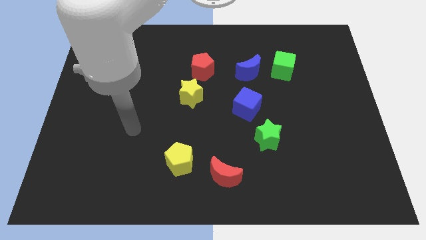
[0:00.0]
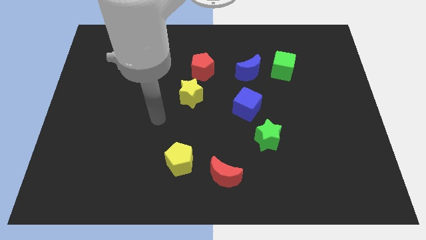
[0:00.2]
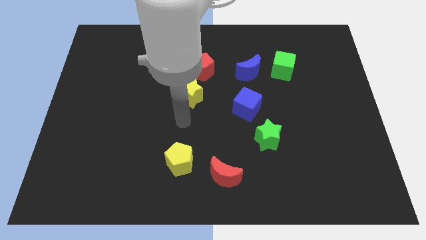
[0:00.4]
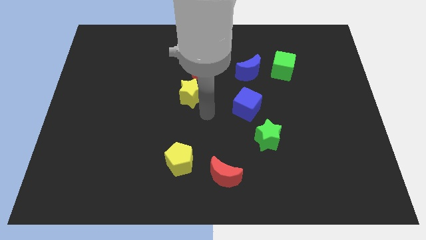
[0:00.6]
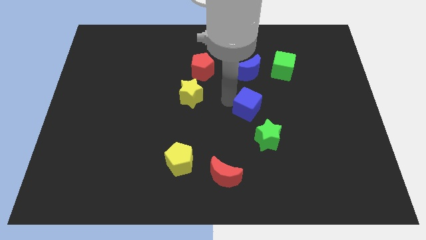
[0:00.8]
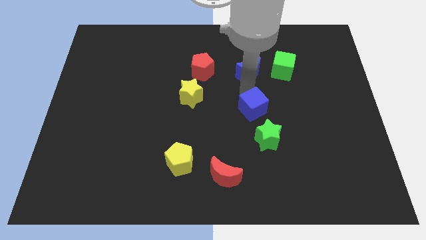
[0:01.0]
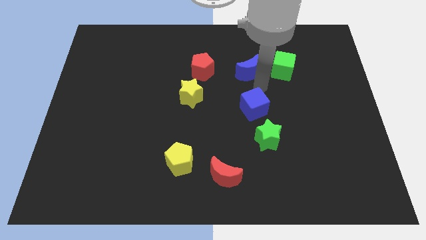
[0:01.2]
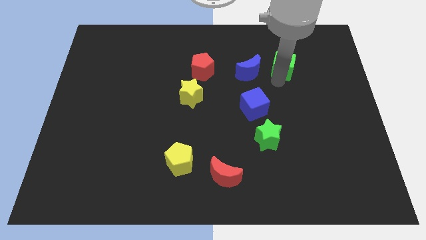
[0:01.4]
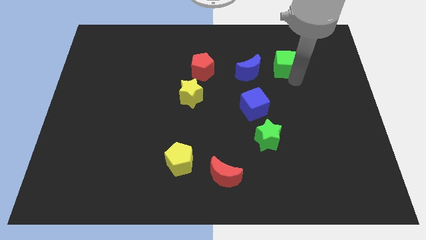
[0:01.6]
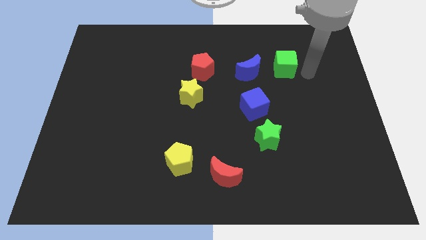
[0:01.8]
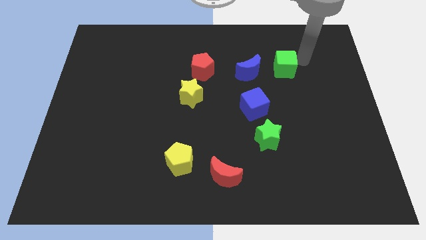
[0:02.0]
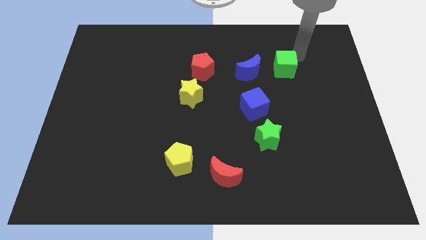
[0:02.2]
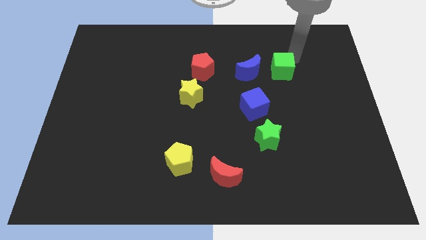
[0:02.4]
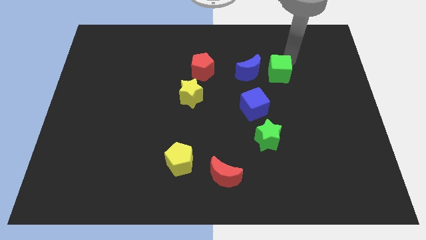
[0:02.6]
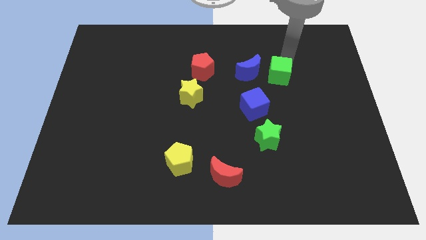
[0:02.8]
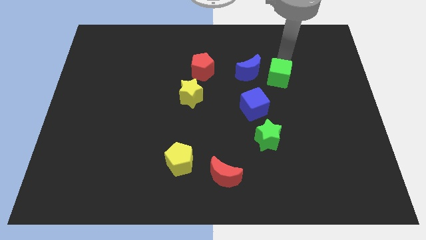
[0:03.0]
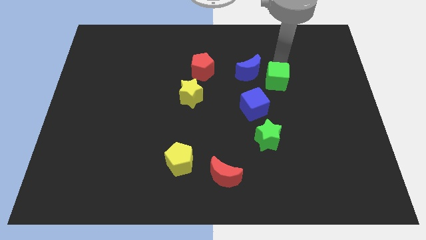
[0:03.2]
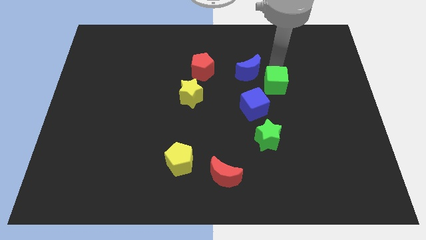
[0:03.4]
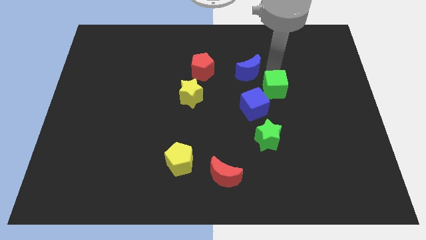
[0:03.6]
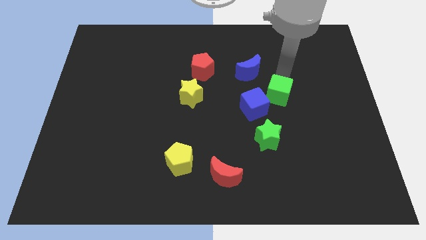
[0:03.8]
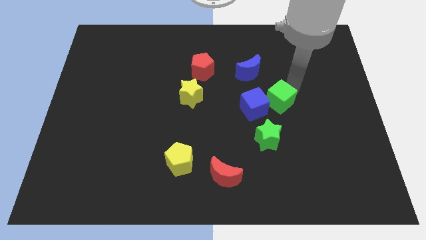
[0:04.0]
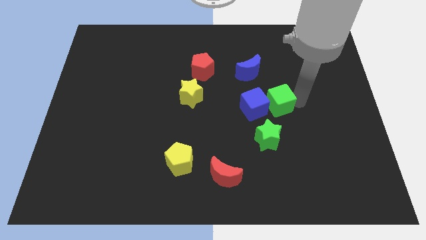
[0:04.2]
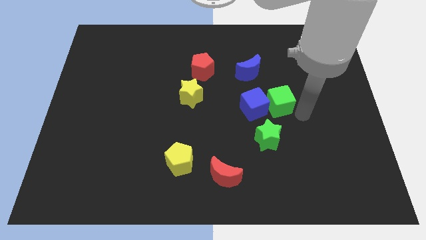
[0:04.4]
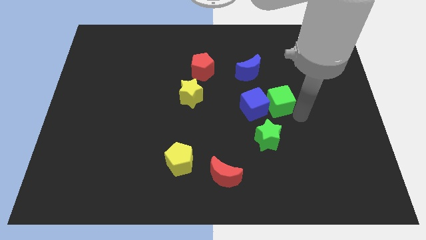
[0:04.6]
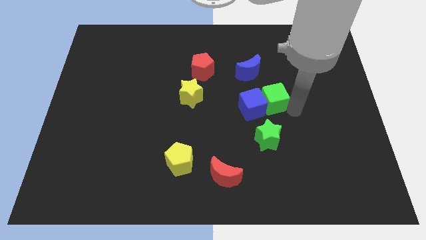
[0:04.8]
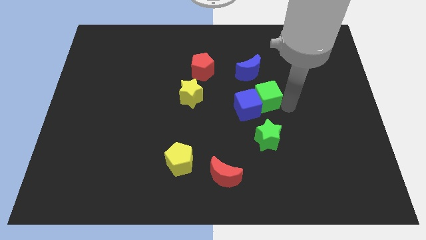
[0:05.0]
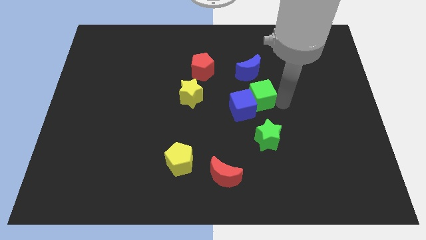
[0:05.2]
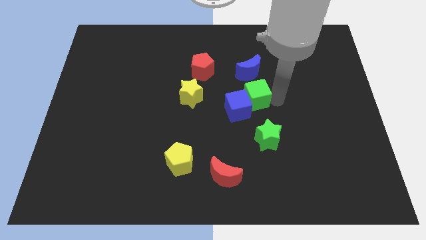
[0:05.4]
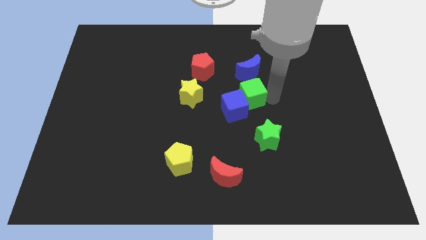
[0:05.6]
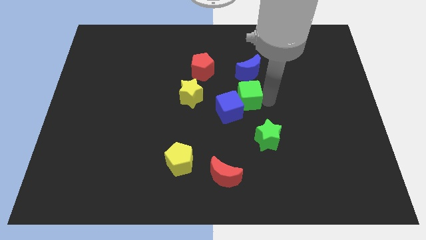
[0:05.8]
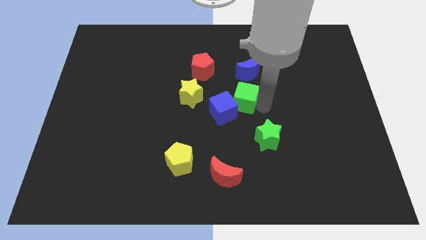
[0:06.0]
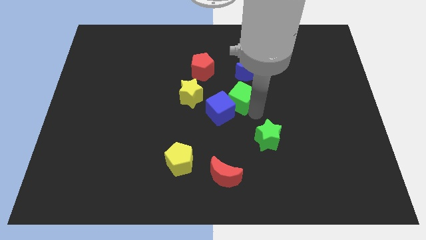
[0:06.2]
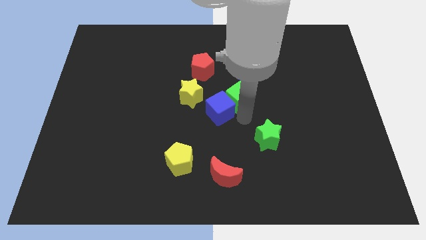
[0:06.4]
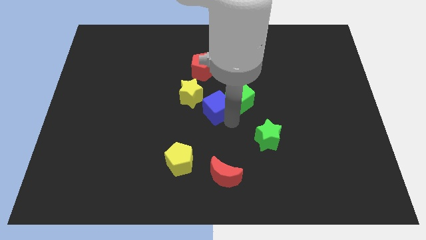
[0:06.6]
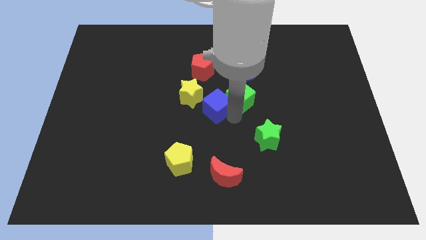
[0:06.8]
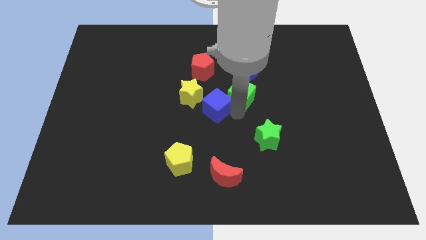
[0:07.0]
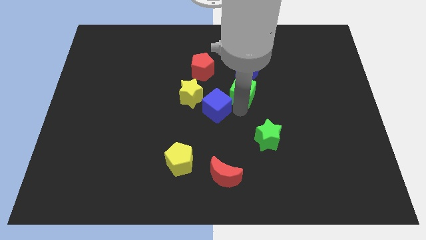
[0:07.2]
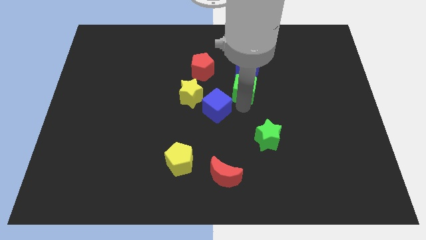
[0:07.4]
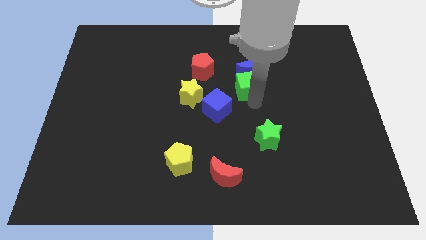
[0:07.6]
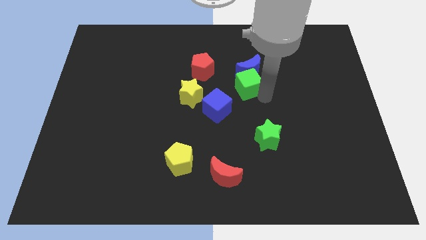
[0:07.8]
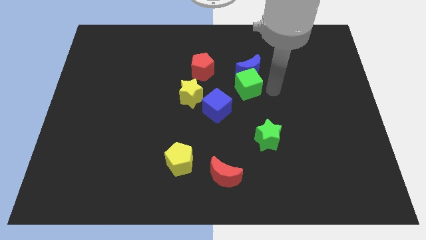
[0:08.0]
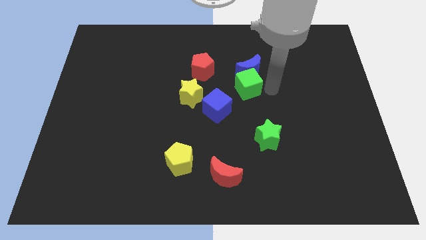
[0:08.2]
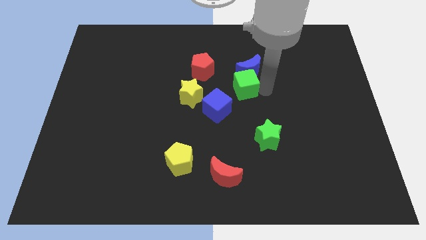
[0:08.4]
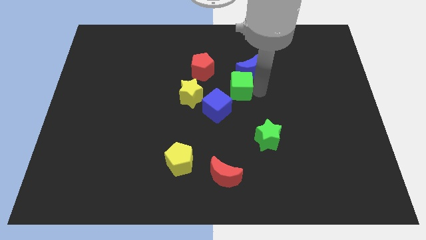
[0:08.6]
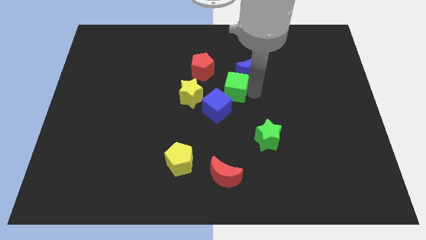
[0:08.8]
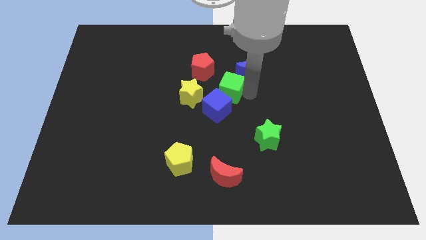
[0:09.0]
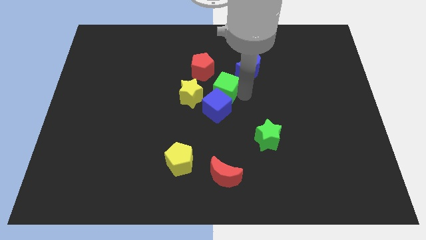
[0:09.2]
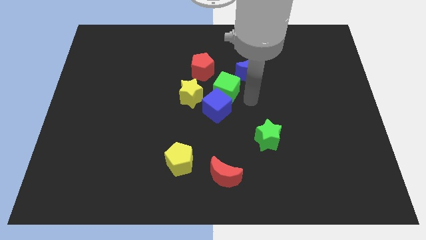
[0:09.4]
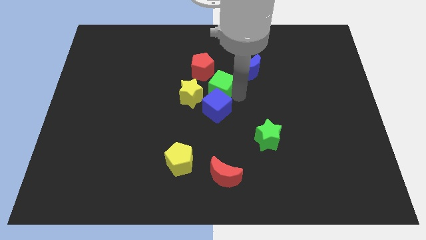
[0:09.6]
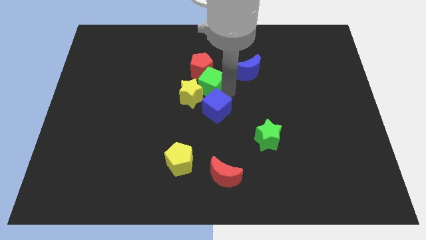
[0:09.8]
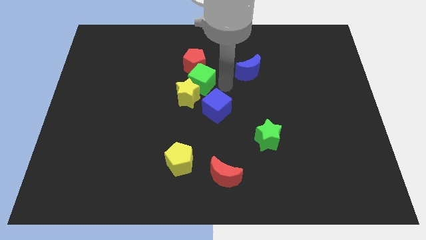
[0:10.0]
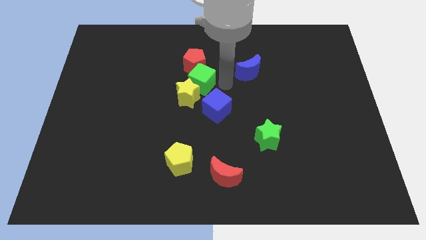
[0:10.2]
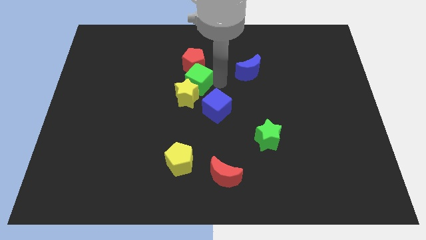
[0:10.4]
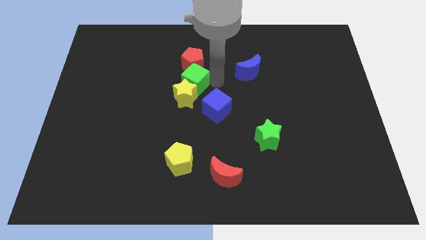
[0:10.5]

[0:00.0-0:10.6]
put the green cube diagonally down and to the left of the red pentagon

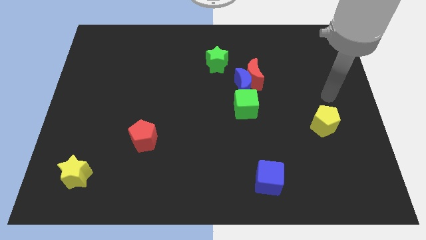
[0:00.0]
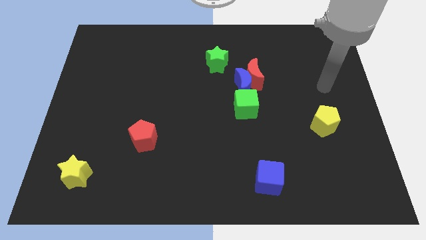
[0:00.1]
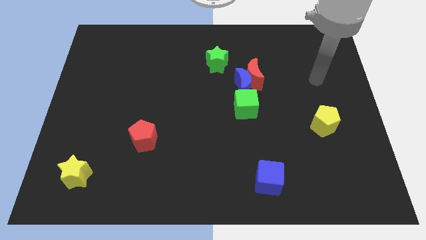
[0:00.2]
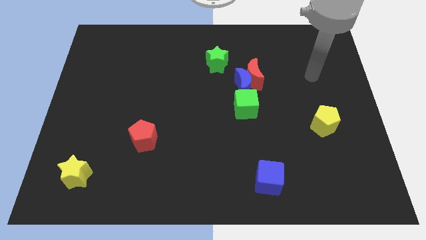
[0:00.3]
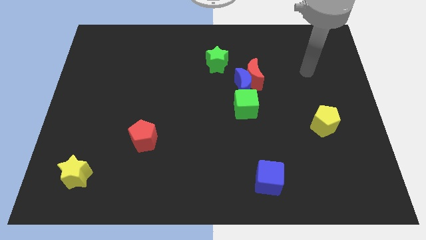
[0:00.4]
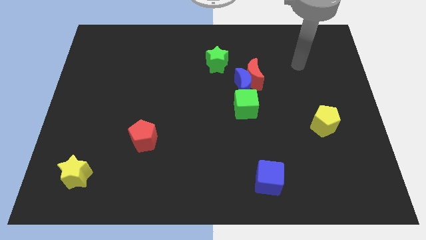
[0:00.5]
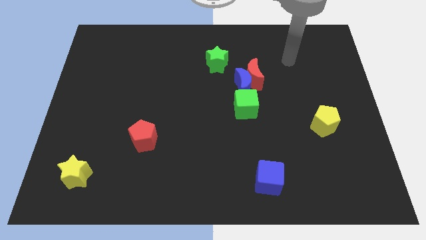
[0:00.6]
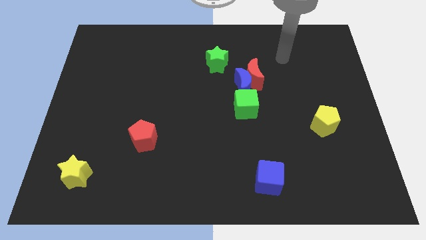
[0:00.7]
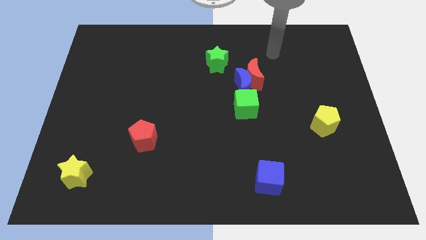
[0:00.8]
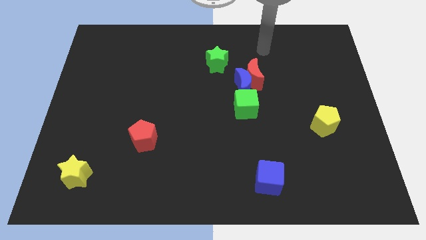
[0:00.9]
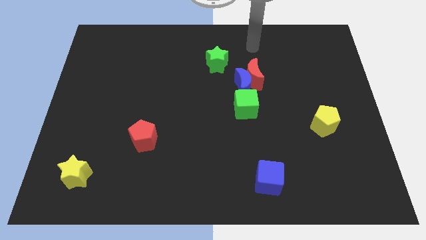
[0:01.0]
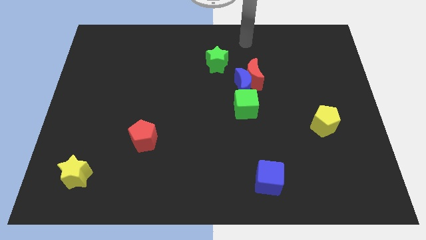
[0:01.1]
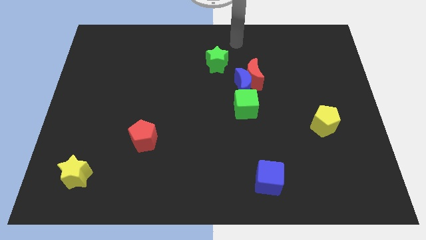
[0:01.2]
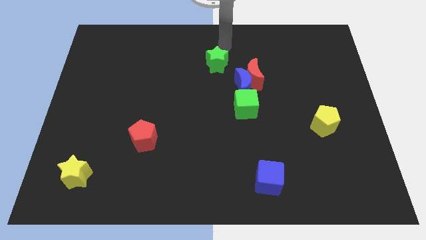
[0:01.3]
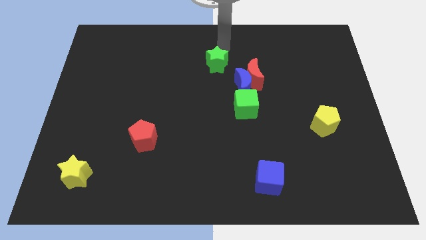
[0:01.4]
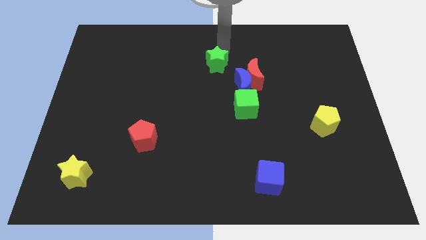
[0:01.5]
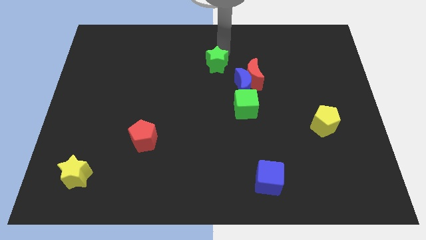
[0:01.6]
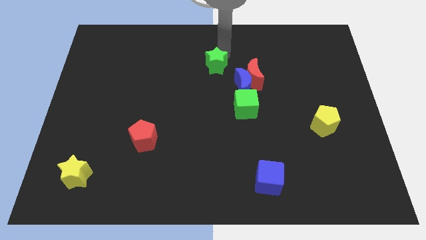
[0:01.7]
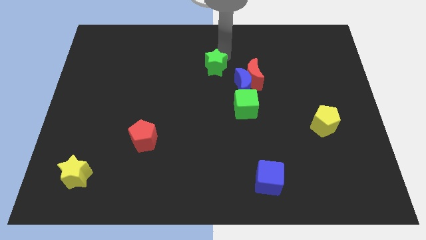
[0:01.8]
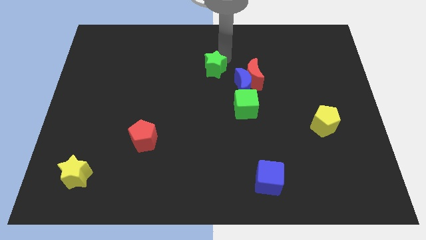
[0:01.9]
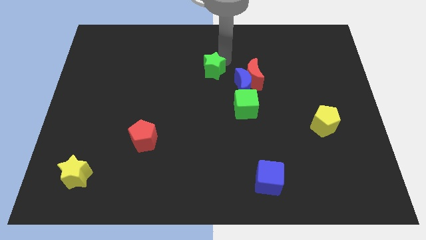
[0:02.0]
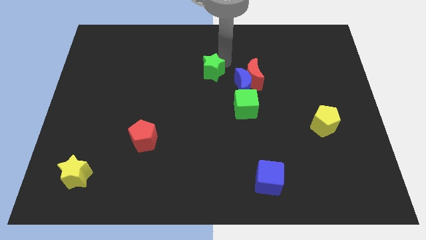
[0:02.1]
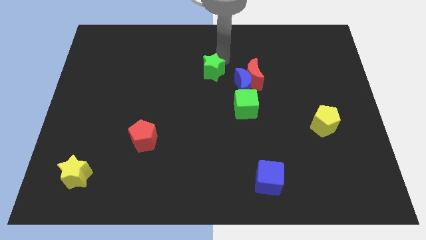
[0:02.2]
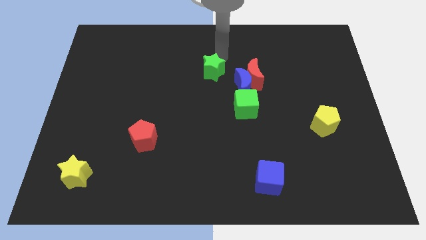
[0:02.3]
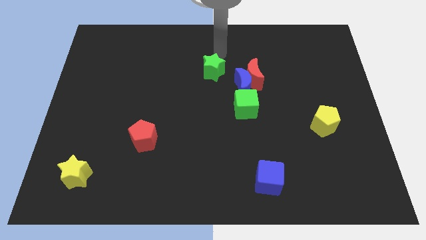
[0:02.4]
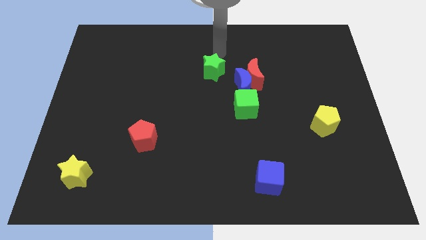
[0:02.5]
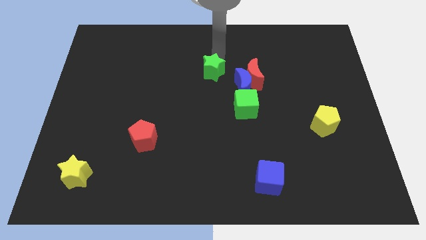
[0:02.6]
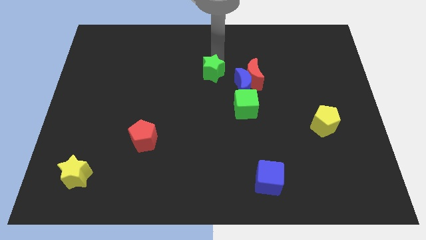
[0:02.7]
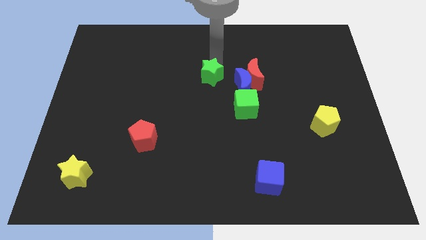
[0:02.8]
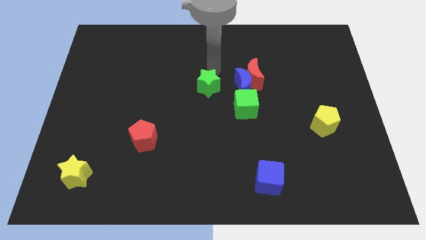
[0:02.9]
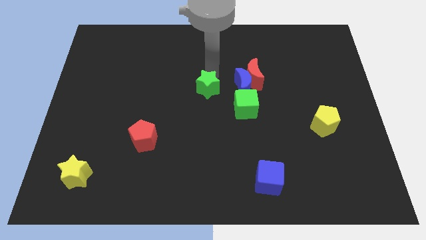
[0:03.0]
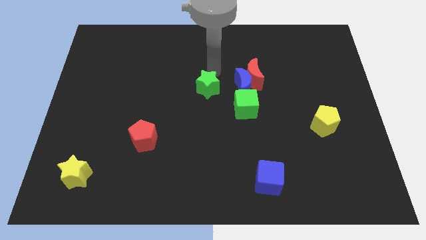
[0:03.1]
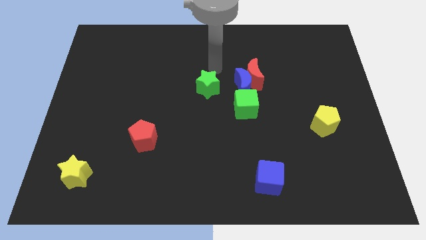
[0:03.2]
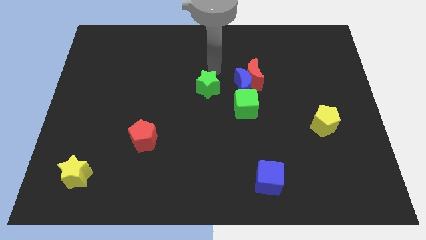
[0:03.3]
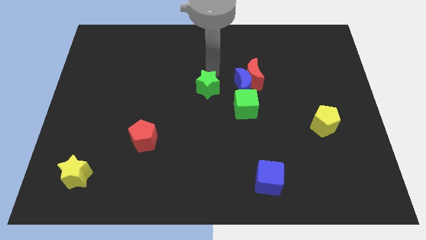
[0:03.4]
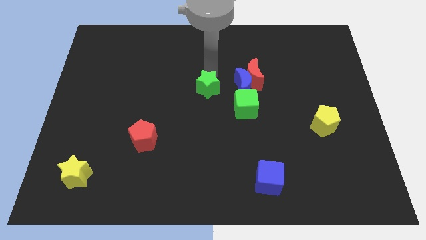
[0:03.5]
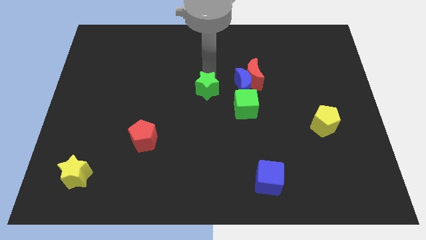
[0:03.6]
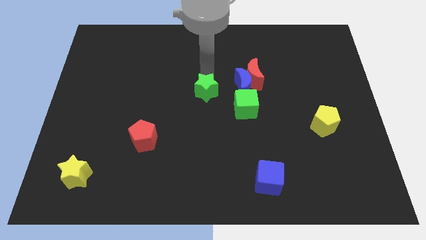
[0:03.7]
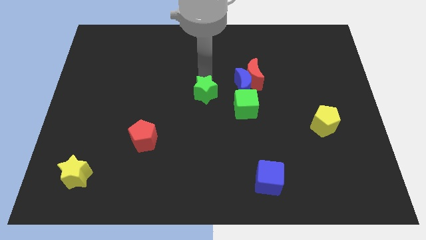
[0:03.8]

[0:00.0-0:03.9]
move the green star left of the green cube
